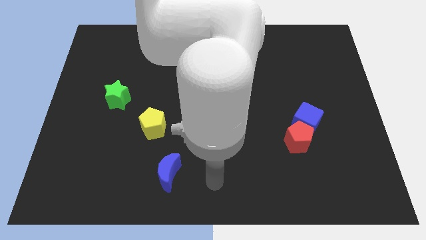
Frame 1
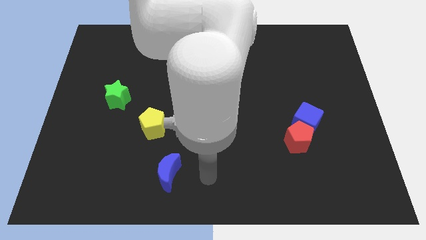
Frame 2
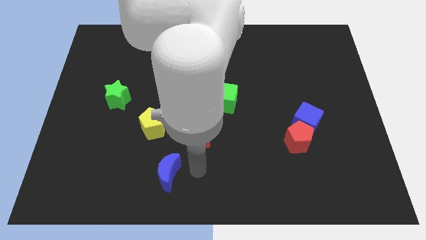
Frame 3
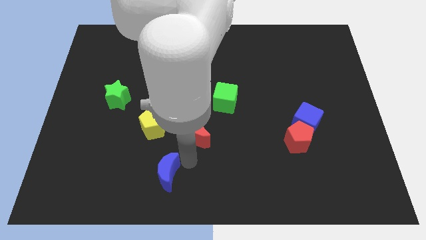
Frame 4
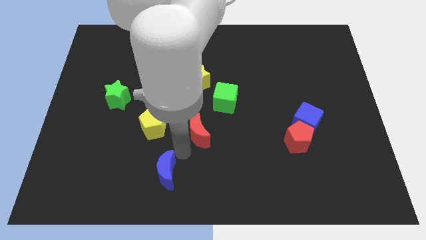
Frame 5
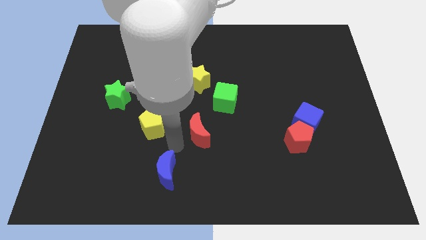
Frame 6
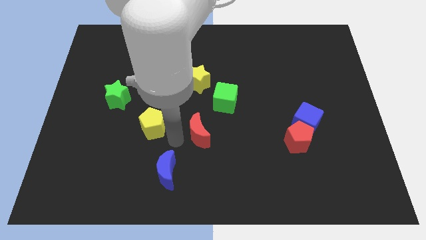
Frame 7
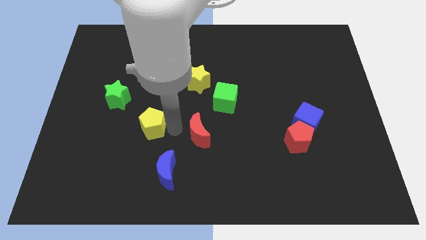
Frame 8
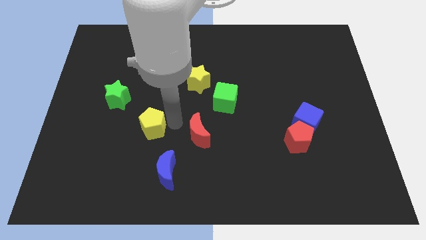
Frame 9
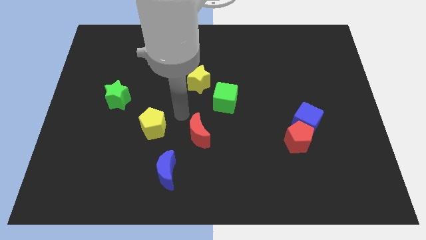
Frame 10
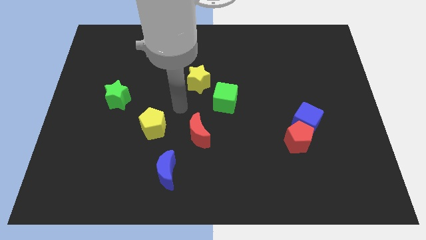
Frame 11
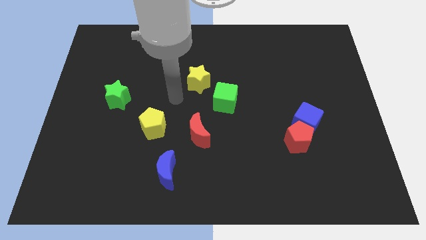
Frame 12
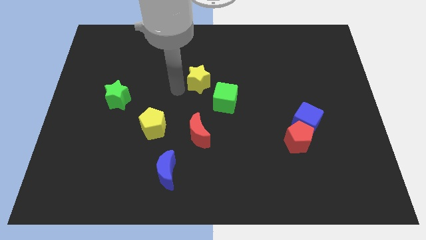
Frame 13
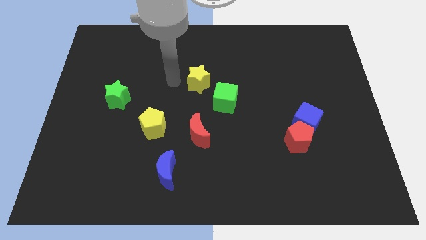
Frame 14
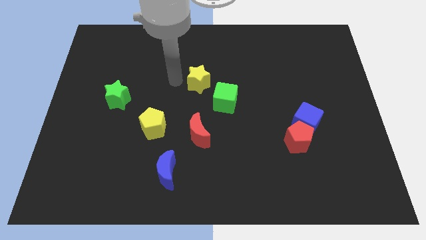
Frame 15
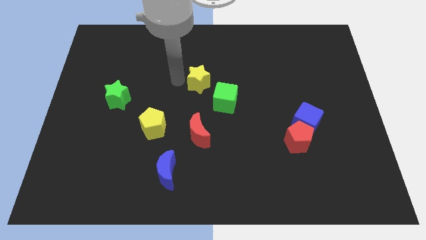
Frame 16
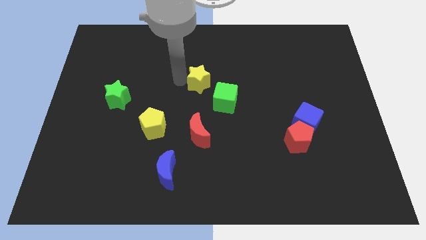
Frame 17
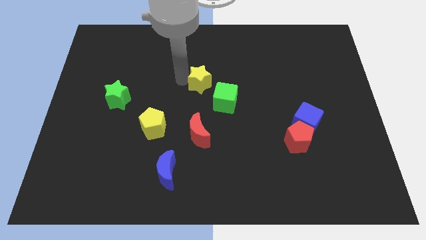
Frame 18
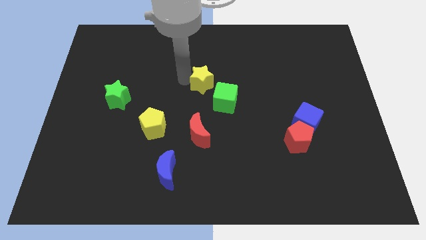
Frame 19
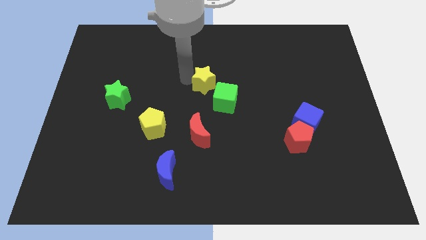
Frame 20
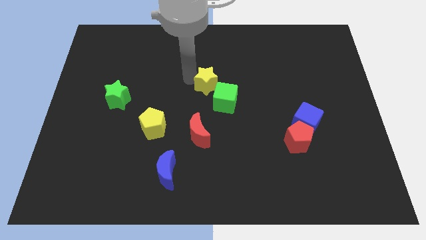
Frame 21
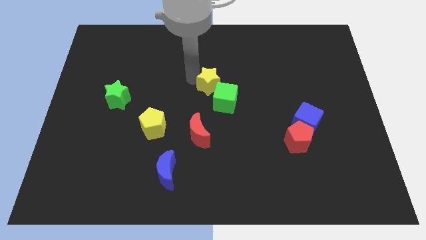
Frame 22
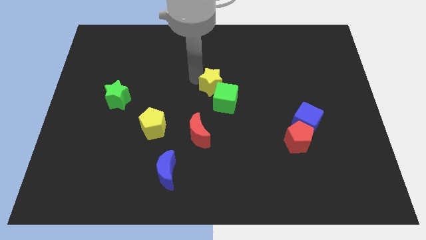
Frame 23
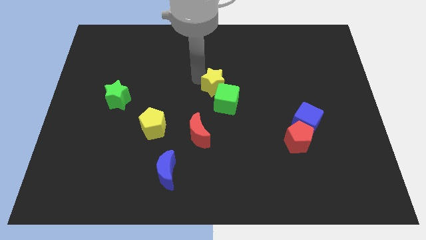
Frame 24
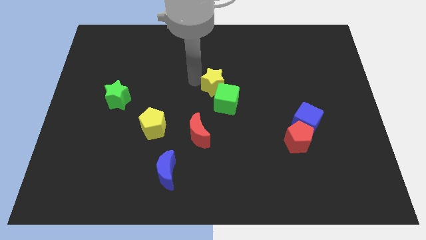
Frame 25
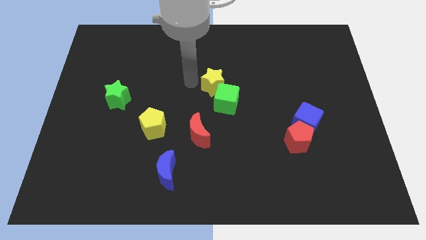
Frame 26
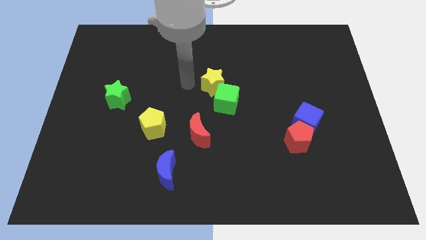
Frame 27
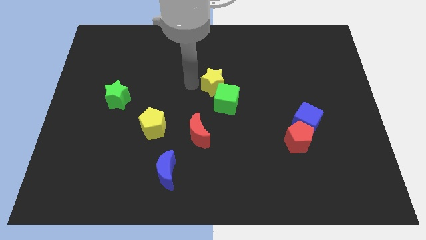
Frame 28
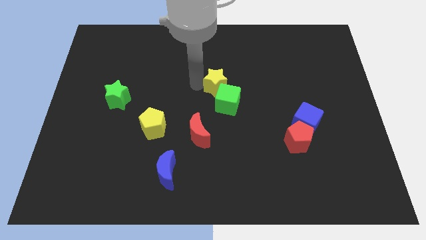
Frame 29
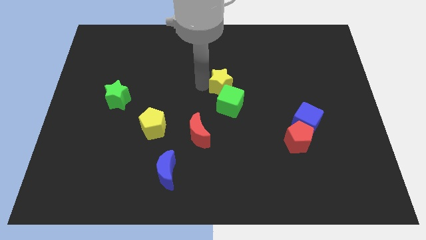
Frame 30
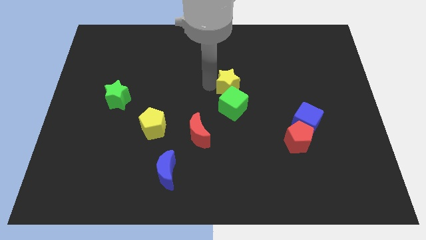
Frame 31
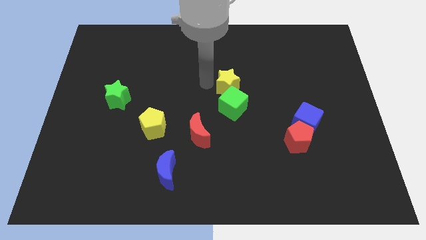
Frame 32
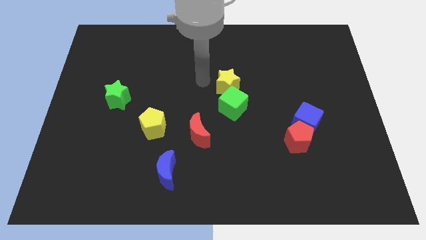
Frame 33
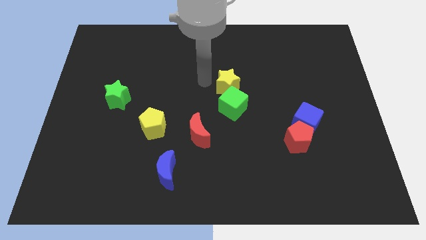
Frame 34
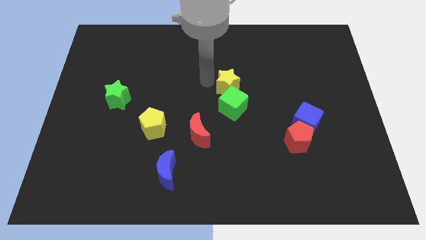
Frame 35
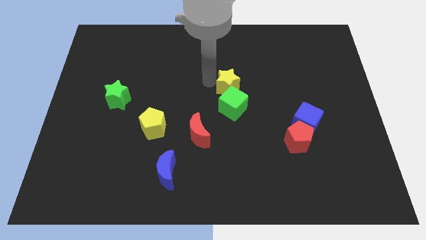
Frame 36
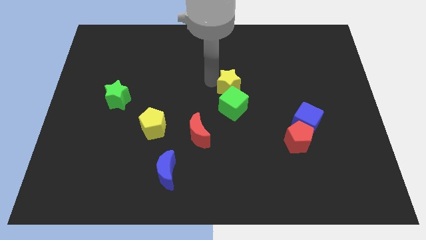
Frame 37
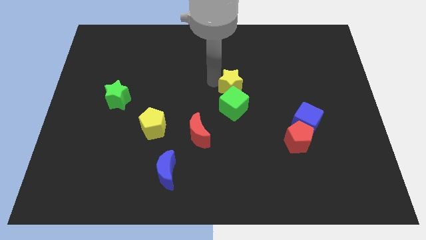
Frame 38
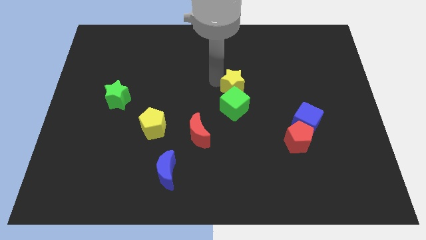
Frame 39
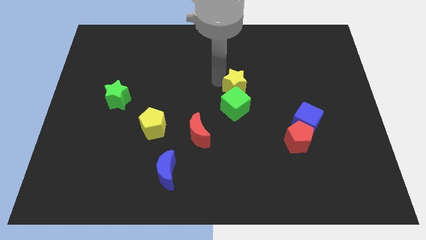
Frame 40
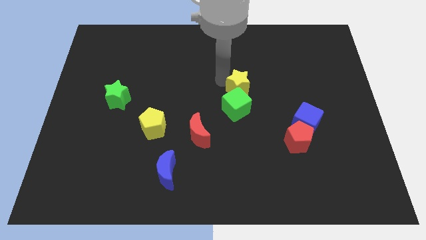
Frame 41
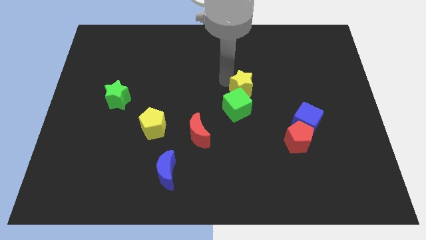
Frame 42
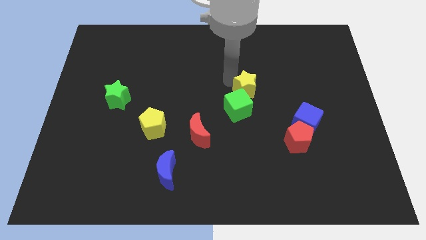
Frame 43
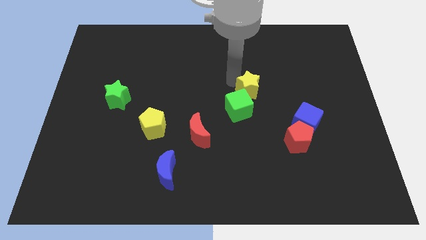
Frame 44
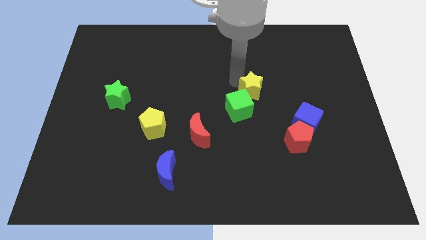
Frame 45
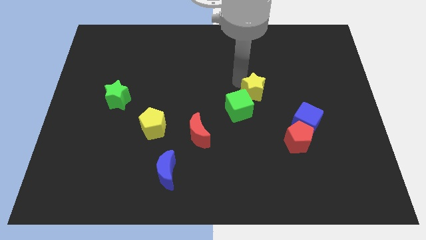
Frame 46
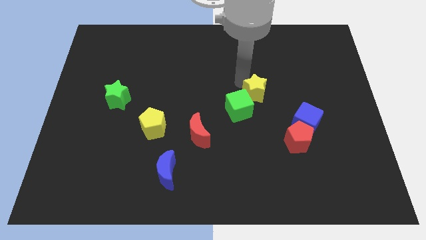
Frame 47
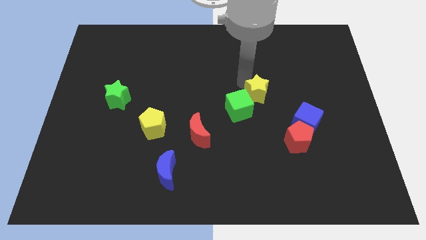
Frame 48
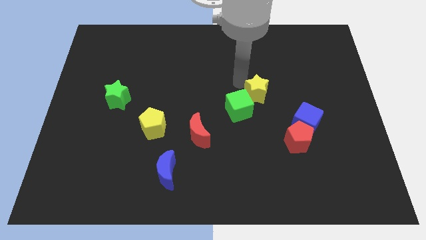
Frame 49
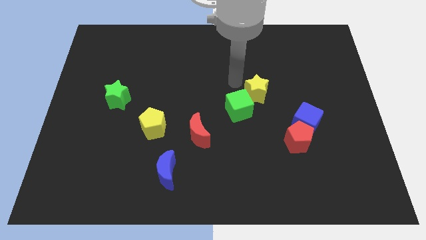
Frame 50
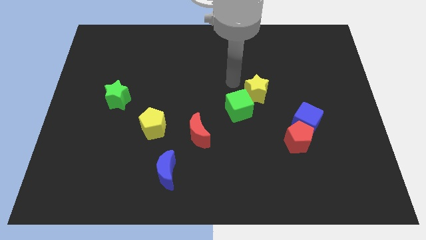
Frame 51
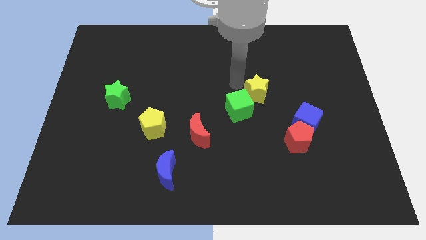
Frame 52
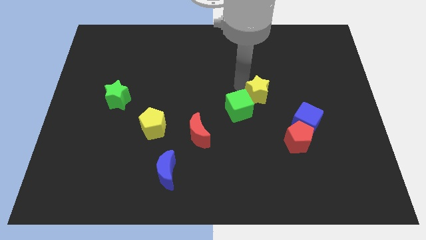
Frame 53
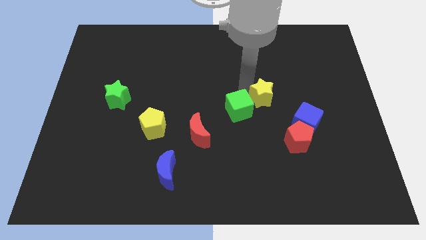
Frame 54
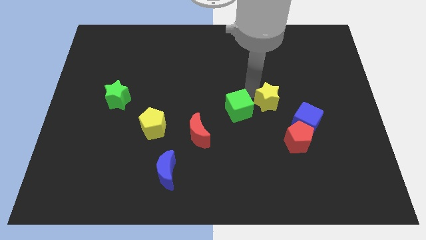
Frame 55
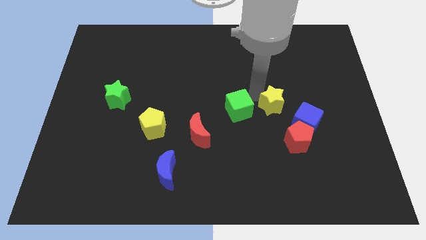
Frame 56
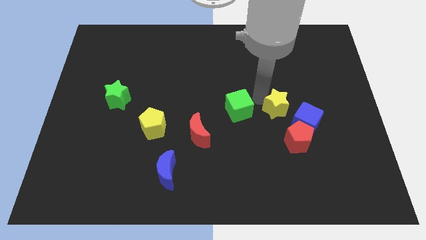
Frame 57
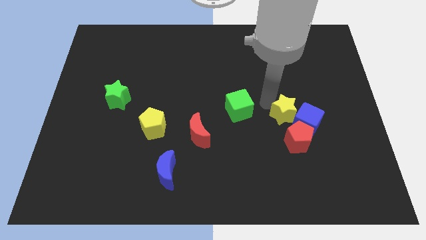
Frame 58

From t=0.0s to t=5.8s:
push the yellow star close to the blue cube

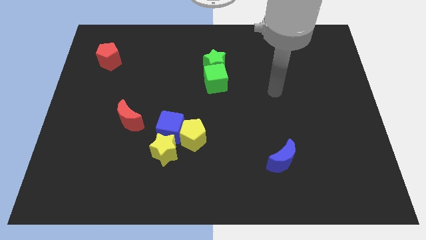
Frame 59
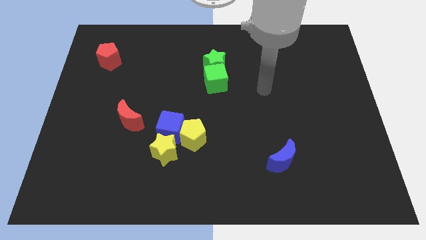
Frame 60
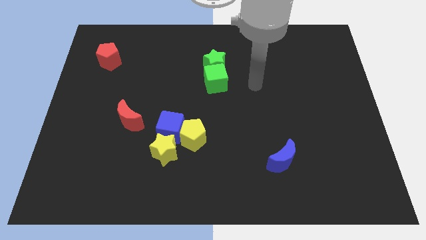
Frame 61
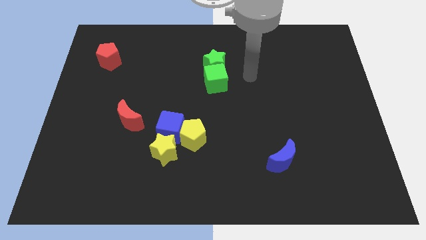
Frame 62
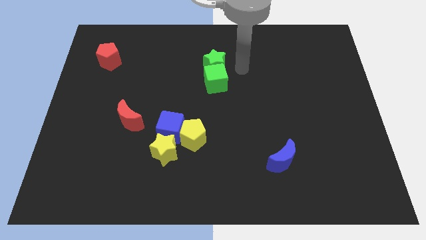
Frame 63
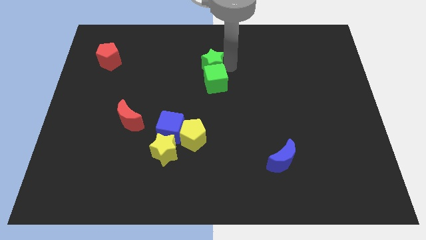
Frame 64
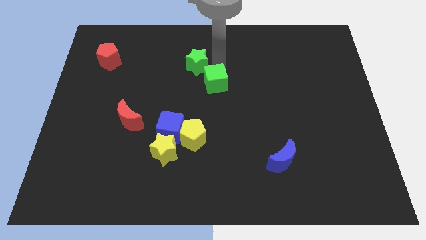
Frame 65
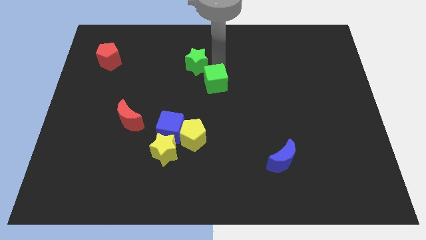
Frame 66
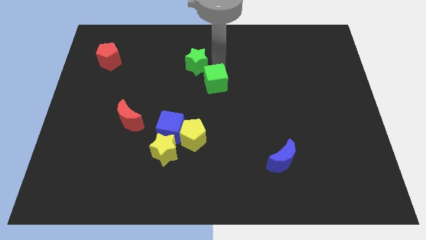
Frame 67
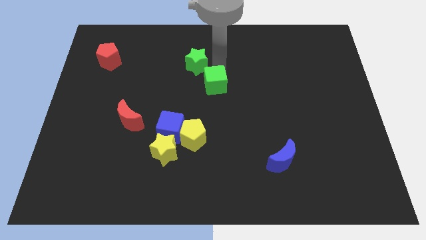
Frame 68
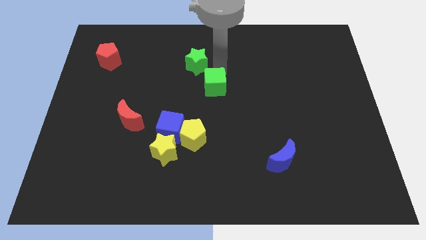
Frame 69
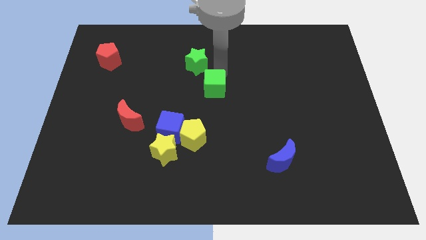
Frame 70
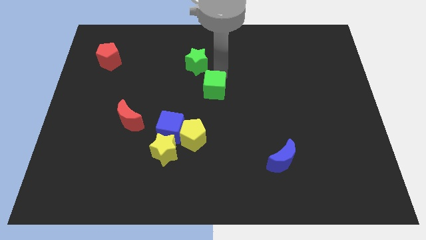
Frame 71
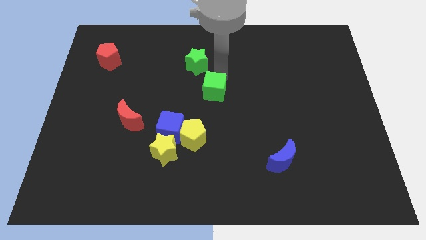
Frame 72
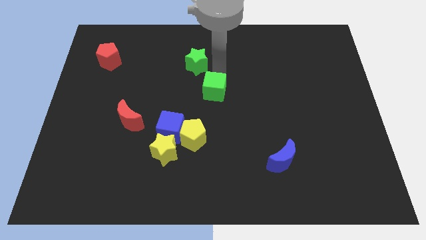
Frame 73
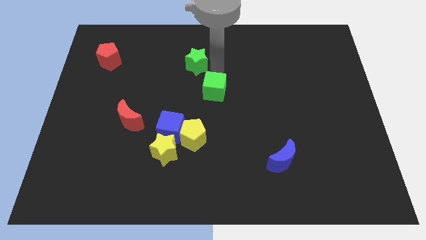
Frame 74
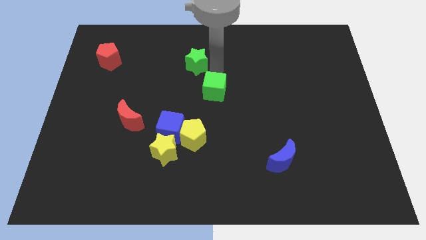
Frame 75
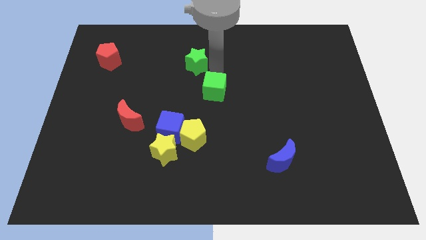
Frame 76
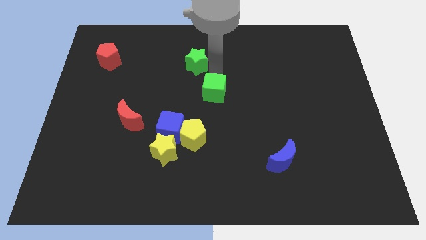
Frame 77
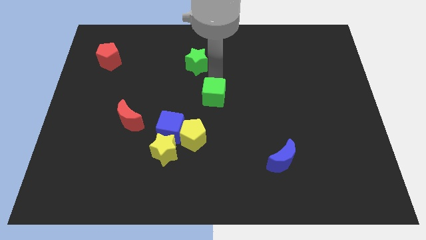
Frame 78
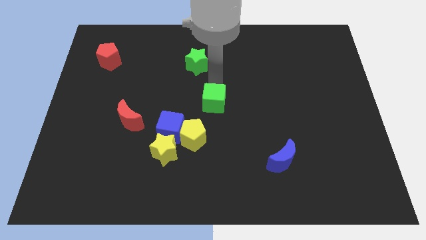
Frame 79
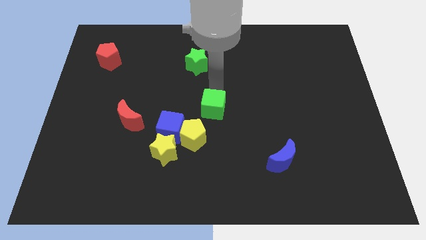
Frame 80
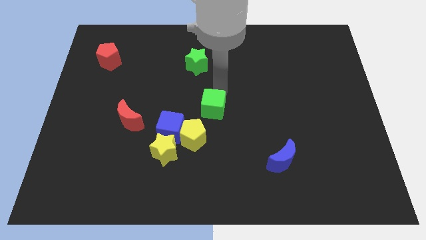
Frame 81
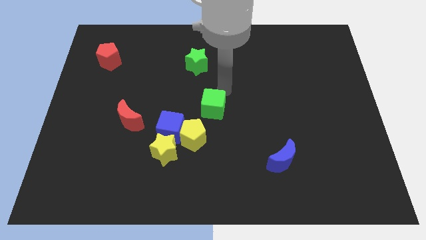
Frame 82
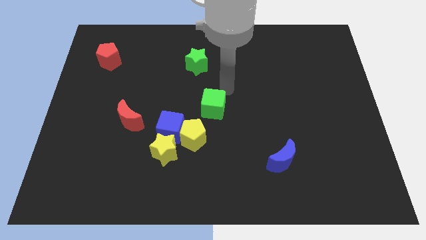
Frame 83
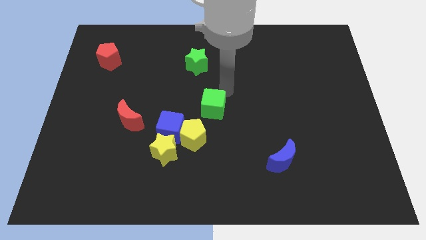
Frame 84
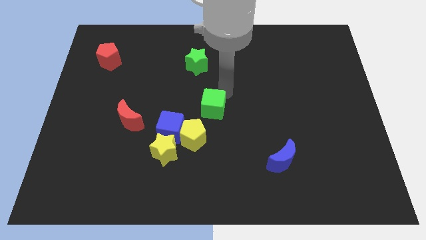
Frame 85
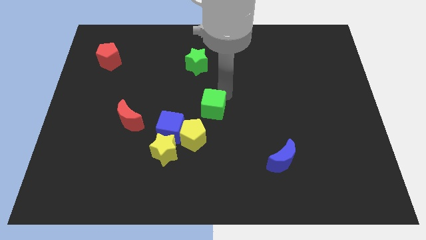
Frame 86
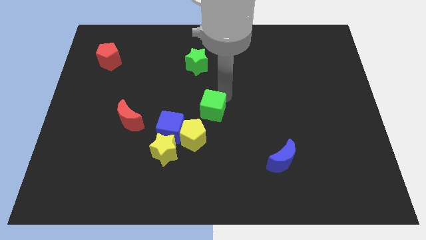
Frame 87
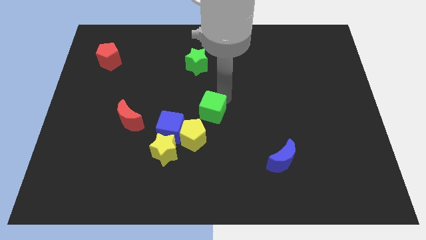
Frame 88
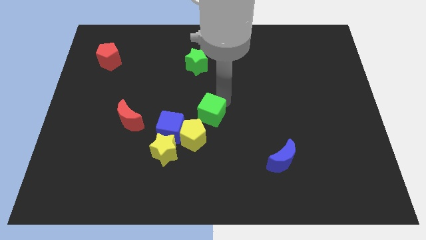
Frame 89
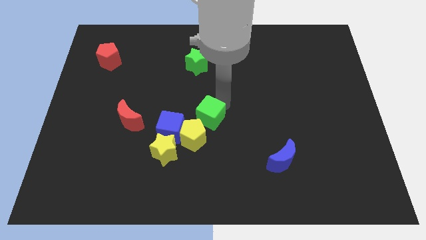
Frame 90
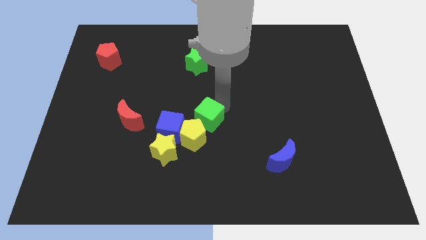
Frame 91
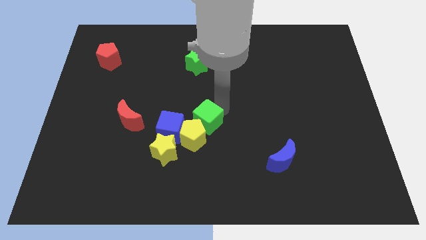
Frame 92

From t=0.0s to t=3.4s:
move the green cube next to the yellow pentagon
